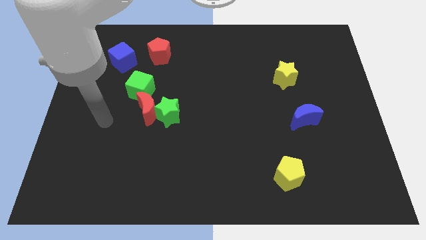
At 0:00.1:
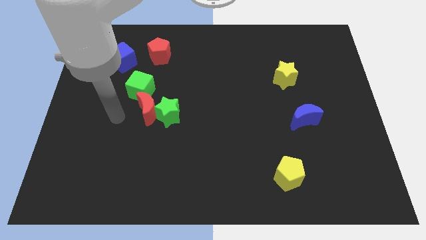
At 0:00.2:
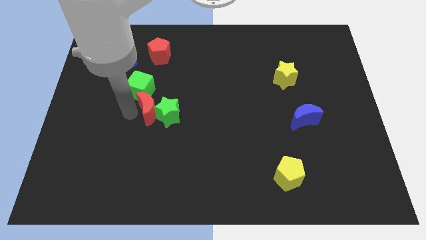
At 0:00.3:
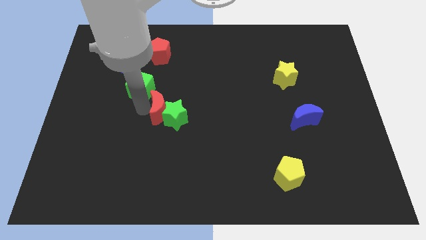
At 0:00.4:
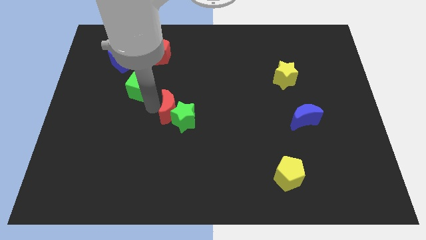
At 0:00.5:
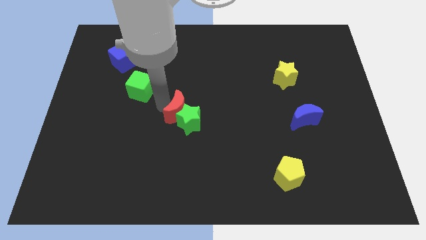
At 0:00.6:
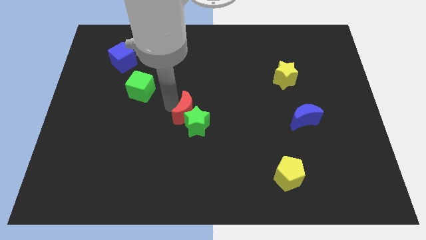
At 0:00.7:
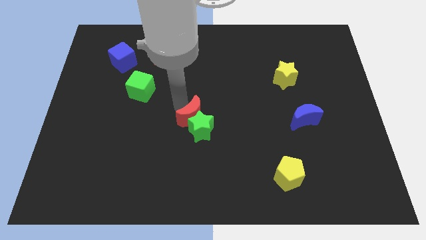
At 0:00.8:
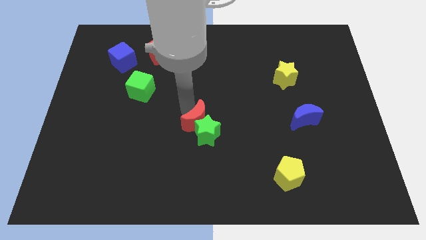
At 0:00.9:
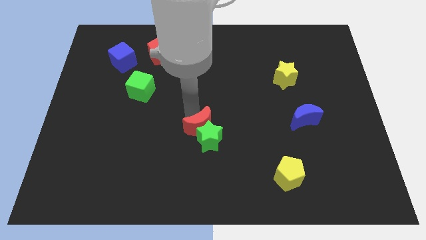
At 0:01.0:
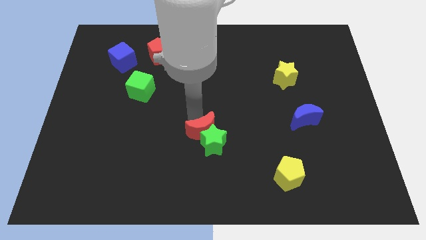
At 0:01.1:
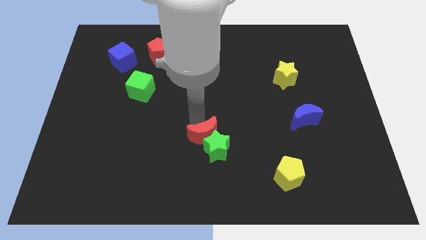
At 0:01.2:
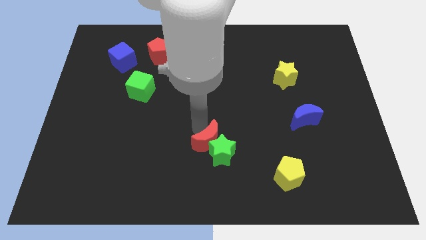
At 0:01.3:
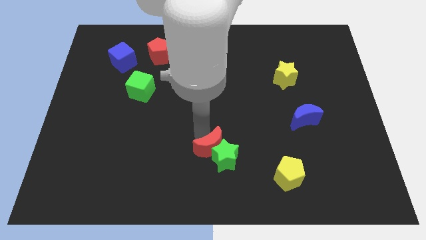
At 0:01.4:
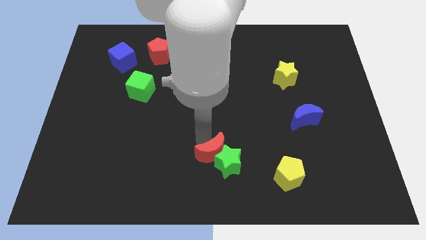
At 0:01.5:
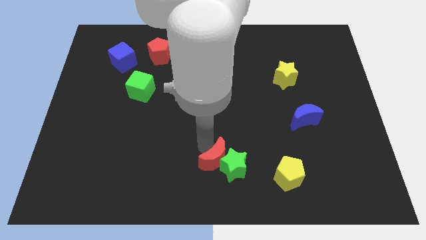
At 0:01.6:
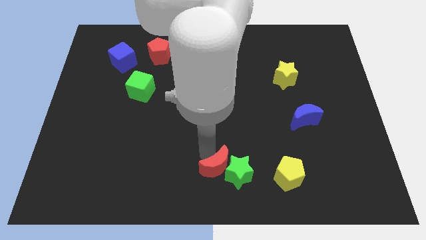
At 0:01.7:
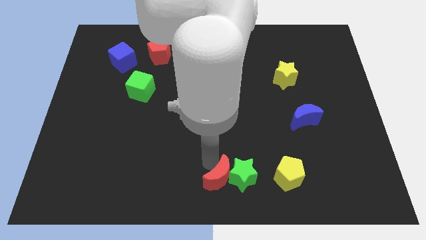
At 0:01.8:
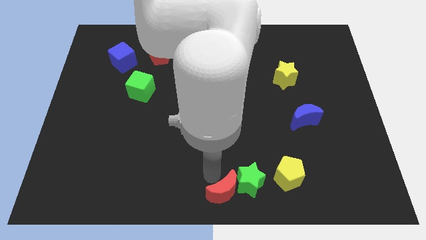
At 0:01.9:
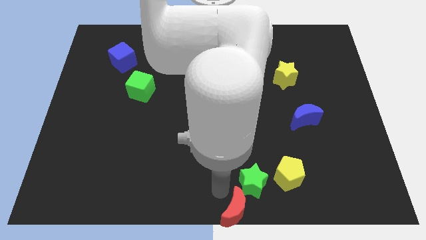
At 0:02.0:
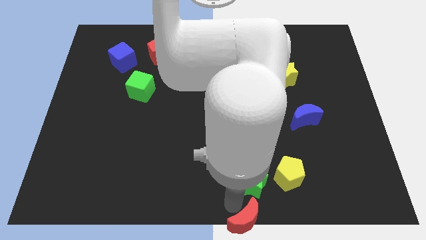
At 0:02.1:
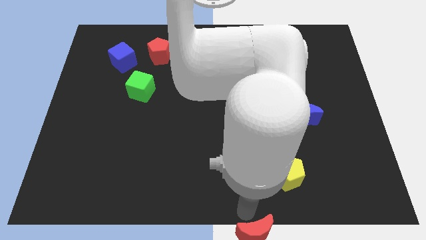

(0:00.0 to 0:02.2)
separate the green star from the red moon

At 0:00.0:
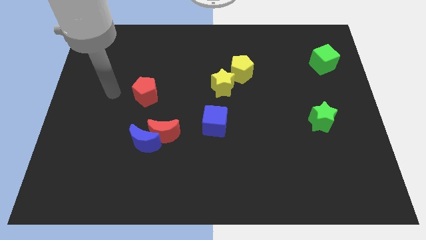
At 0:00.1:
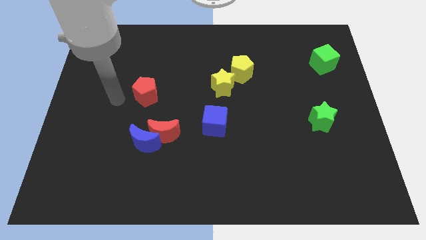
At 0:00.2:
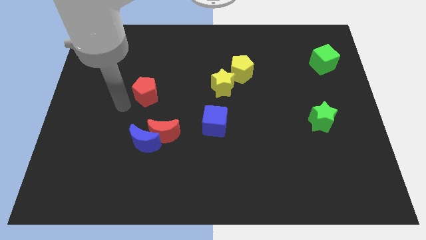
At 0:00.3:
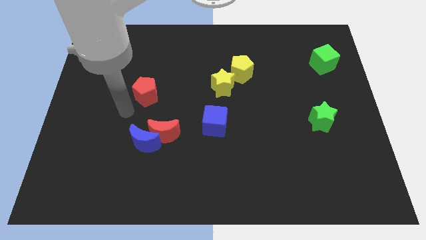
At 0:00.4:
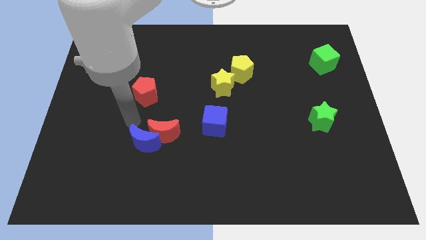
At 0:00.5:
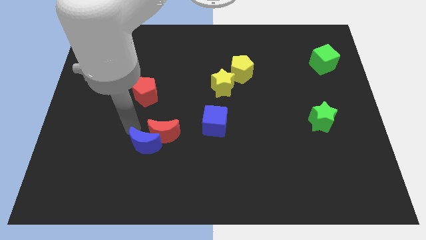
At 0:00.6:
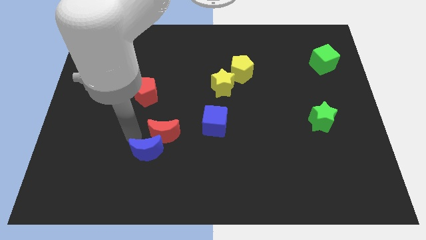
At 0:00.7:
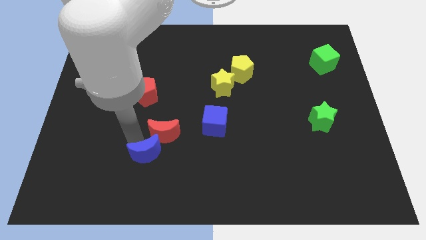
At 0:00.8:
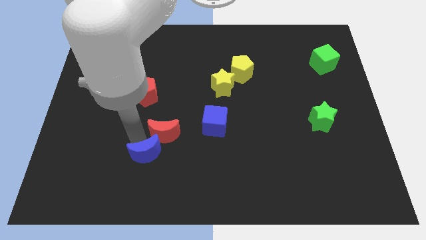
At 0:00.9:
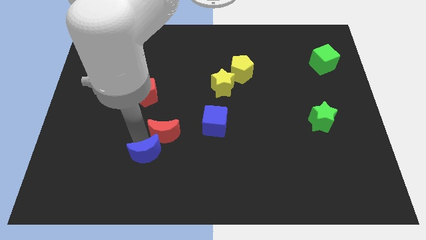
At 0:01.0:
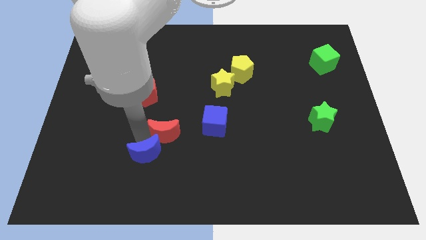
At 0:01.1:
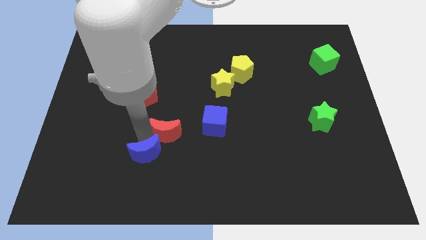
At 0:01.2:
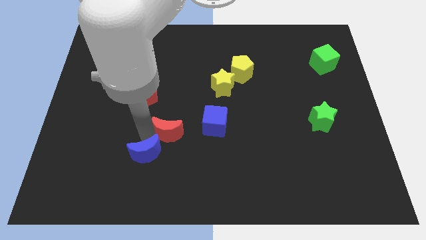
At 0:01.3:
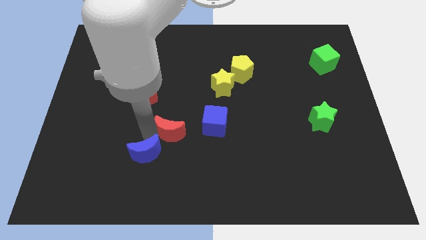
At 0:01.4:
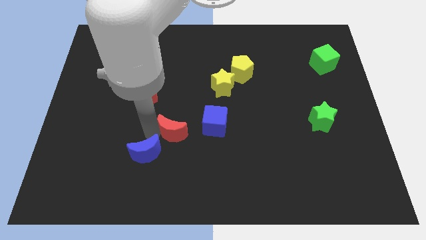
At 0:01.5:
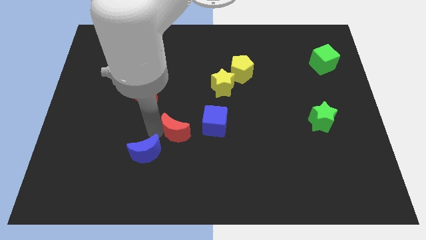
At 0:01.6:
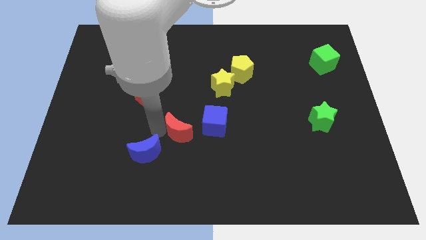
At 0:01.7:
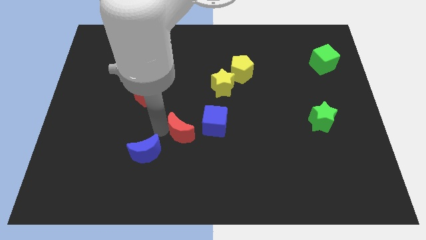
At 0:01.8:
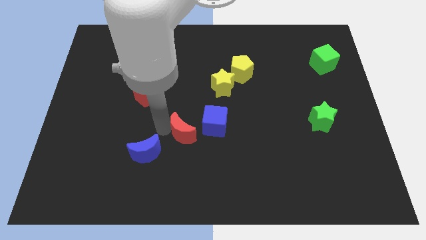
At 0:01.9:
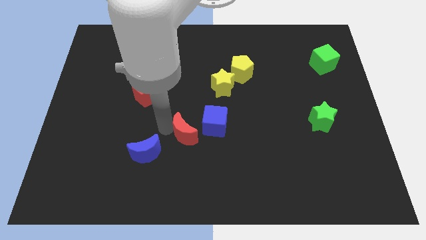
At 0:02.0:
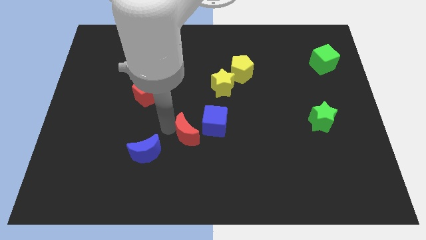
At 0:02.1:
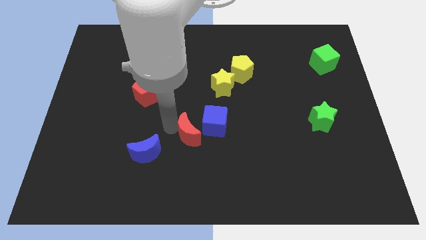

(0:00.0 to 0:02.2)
separate the red moon from the blue moon

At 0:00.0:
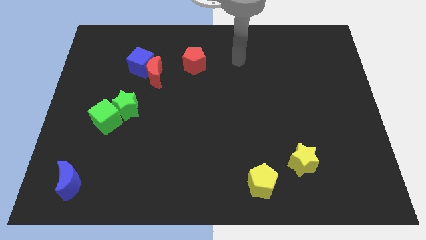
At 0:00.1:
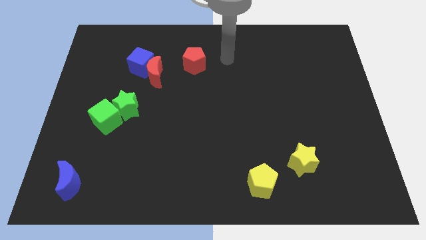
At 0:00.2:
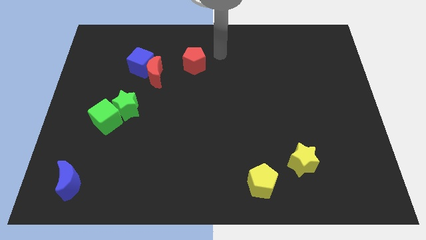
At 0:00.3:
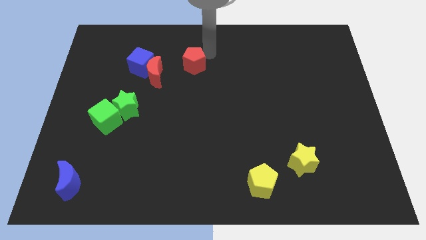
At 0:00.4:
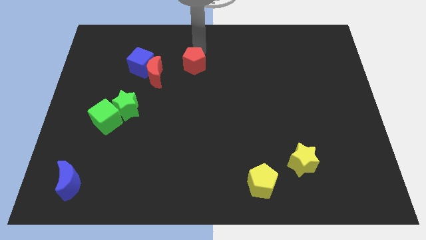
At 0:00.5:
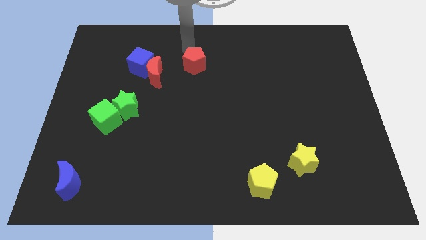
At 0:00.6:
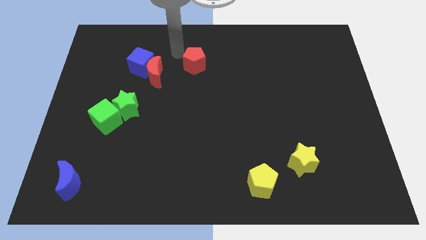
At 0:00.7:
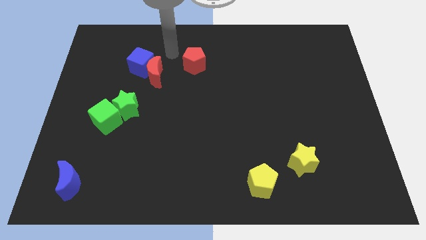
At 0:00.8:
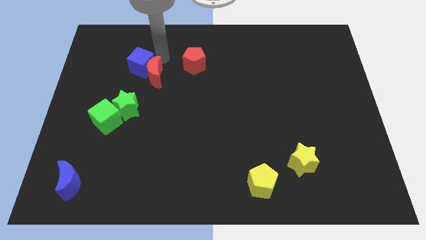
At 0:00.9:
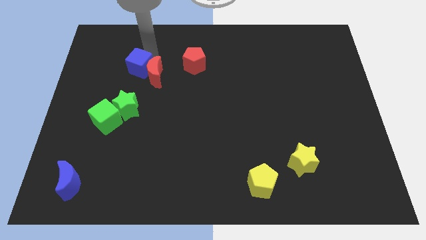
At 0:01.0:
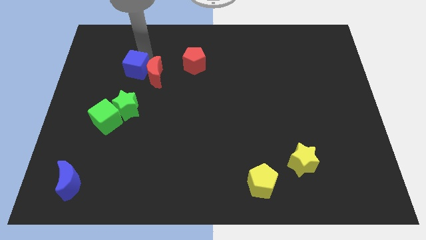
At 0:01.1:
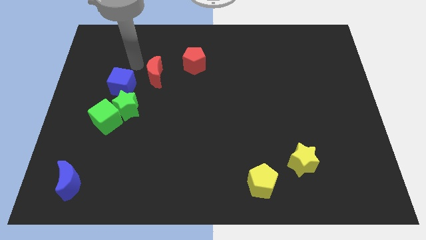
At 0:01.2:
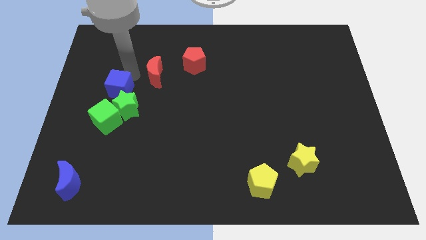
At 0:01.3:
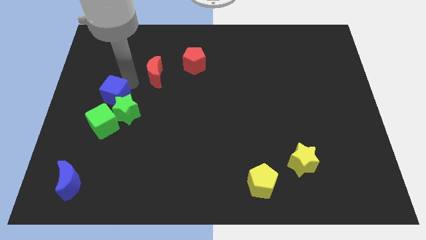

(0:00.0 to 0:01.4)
move the red moon away from the blue cube

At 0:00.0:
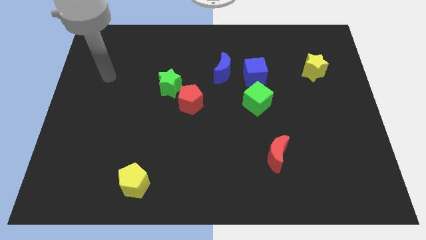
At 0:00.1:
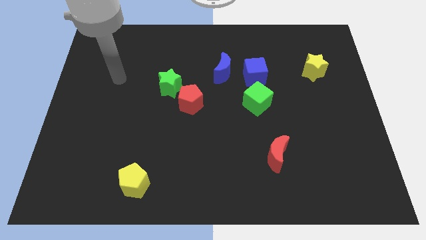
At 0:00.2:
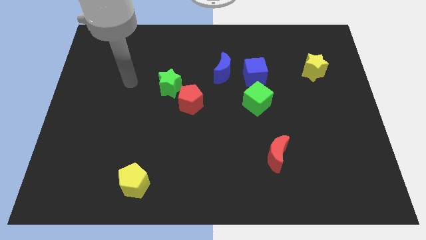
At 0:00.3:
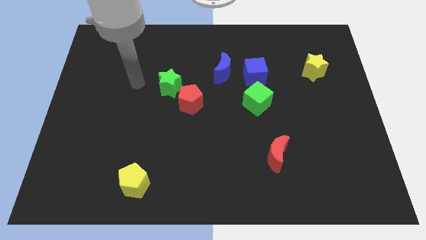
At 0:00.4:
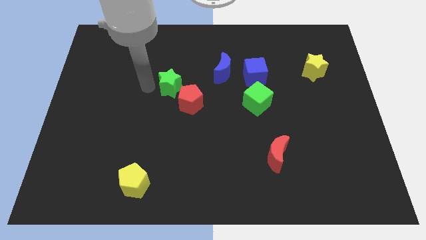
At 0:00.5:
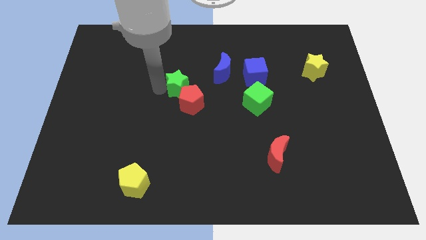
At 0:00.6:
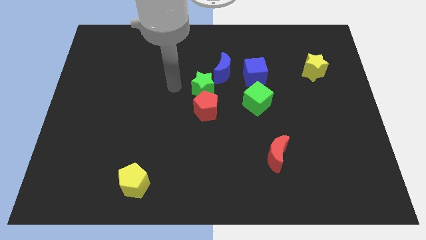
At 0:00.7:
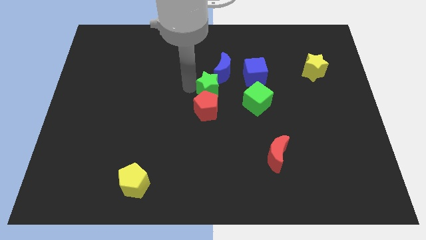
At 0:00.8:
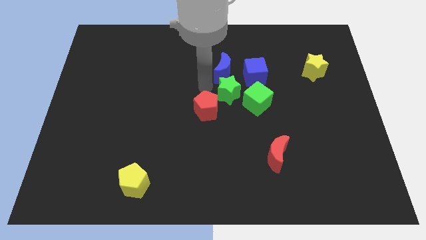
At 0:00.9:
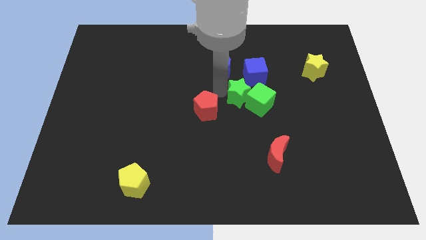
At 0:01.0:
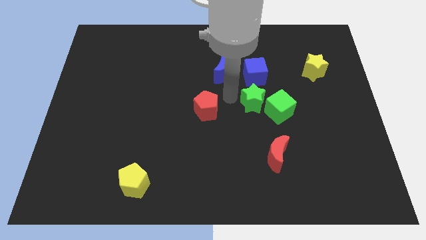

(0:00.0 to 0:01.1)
pull the red pentagon apart from the green star

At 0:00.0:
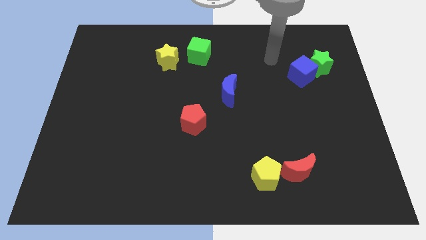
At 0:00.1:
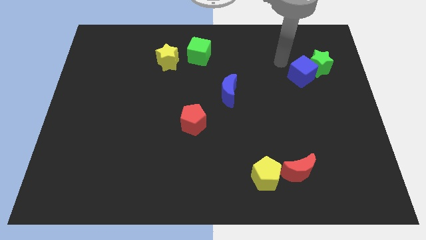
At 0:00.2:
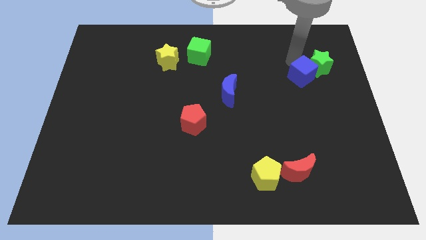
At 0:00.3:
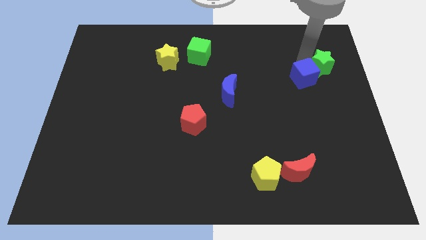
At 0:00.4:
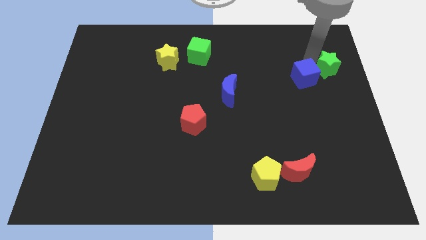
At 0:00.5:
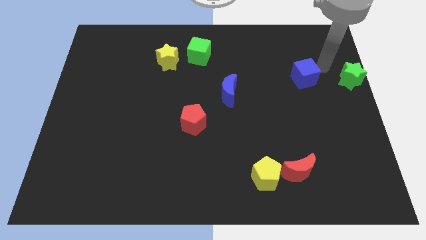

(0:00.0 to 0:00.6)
pull the blue cube apart from the green star

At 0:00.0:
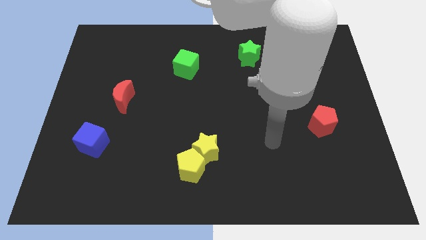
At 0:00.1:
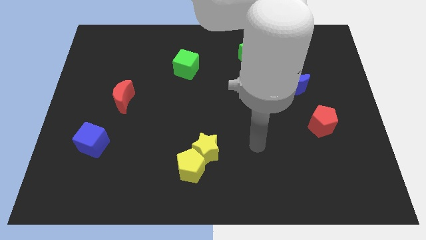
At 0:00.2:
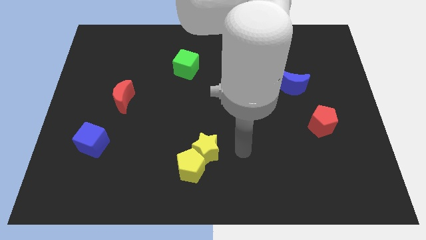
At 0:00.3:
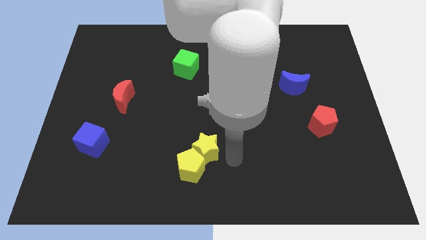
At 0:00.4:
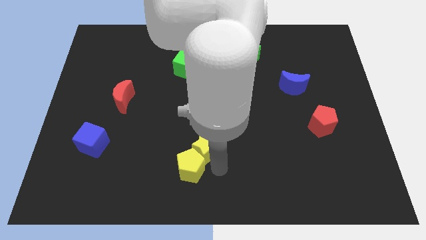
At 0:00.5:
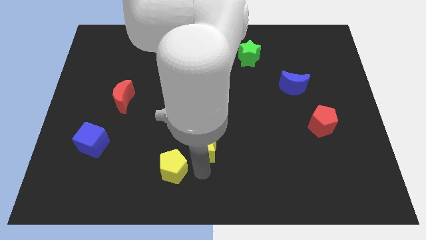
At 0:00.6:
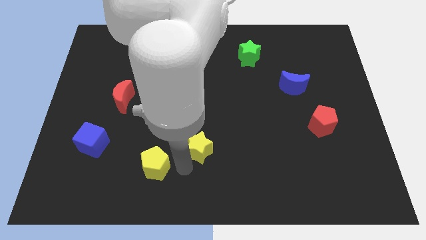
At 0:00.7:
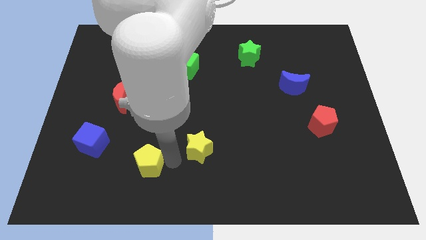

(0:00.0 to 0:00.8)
pull the yellow star apart from the yellow pentagon

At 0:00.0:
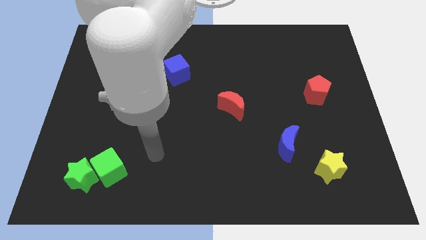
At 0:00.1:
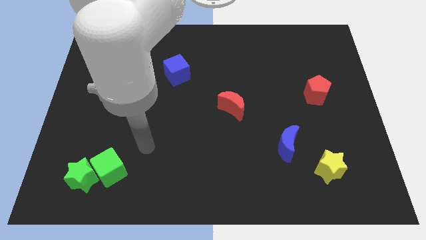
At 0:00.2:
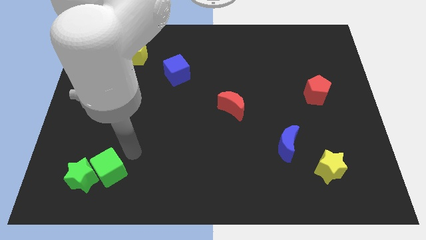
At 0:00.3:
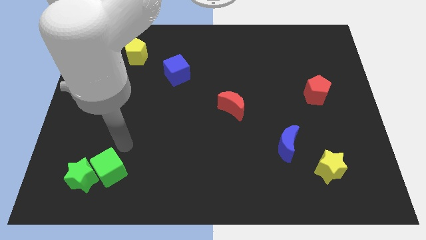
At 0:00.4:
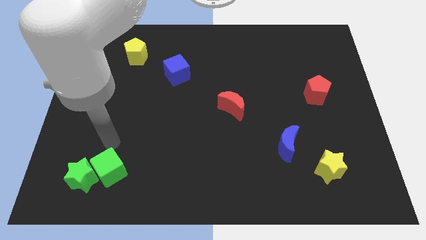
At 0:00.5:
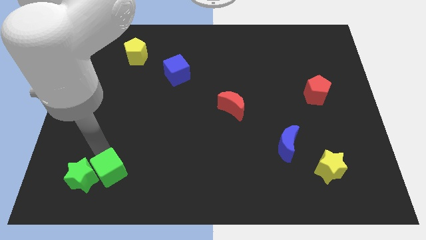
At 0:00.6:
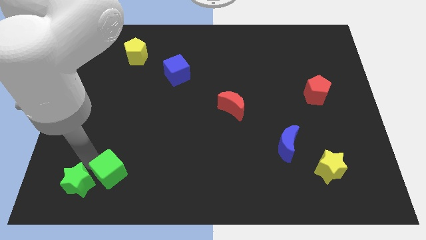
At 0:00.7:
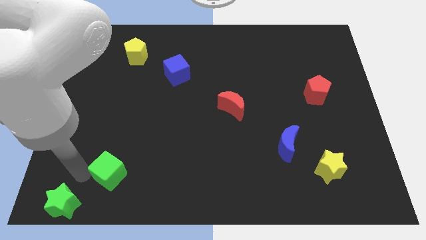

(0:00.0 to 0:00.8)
move the green cube away from the green star

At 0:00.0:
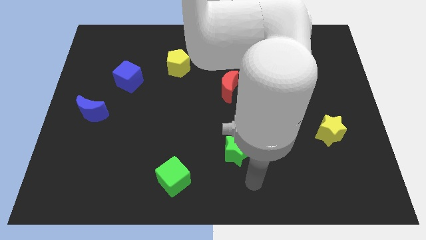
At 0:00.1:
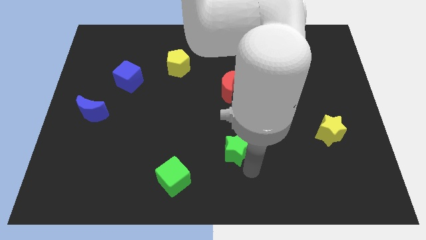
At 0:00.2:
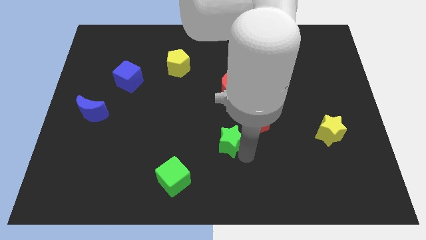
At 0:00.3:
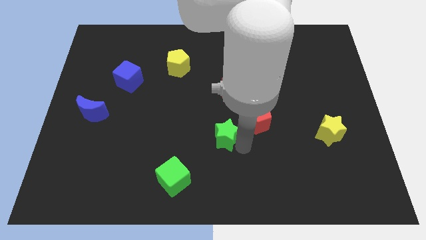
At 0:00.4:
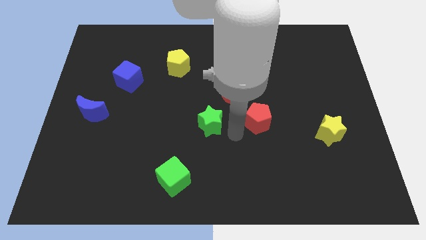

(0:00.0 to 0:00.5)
separate the red pentagon from the green star
